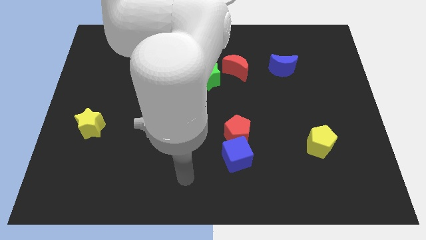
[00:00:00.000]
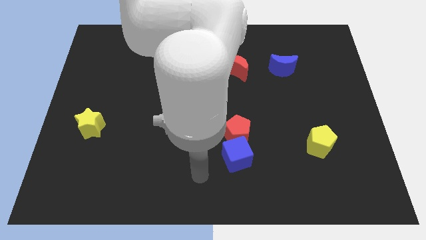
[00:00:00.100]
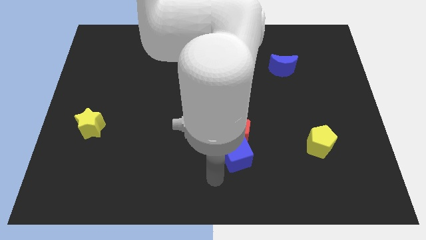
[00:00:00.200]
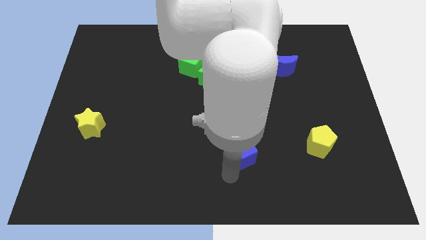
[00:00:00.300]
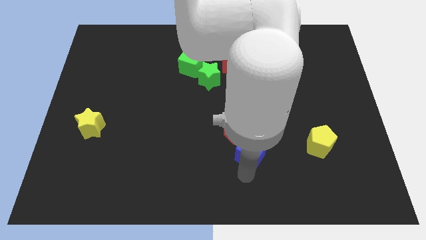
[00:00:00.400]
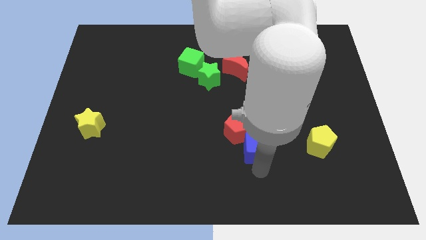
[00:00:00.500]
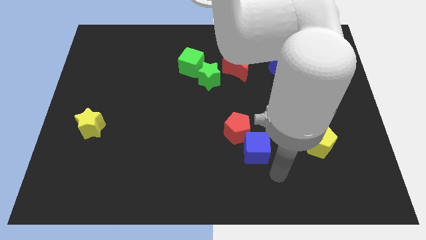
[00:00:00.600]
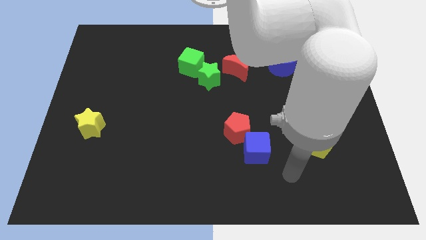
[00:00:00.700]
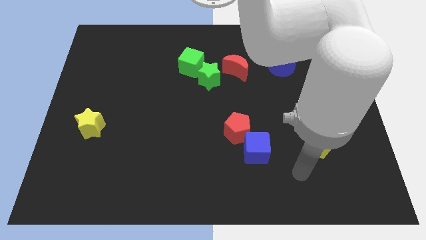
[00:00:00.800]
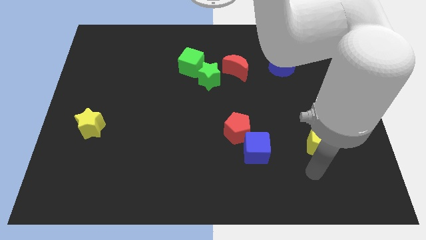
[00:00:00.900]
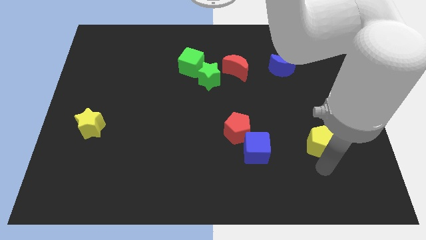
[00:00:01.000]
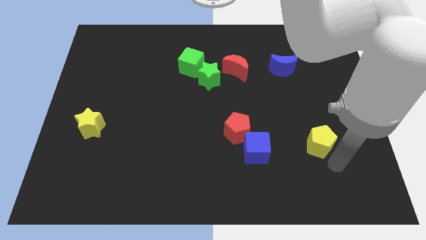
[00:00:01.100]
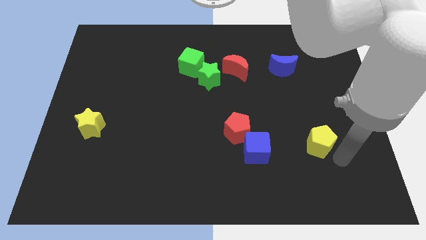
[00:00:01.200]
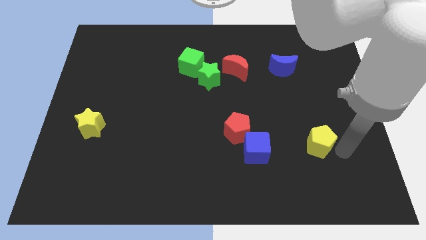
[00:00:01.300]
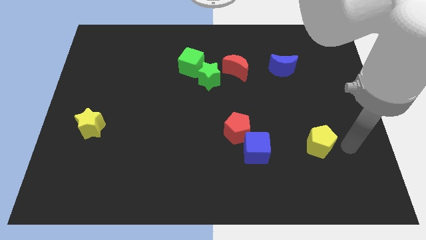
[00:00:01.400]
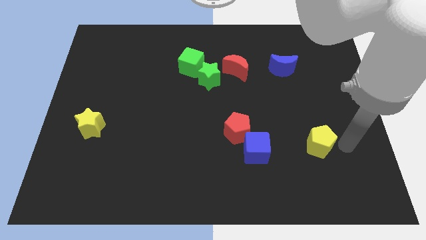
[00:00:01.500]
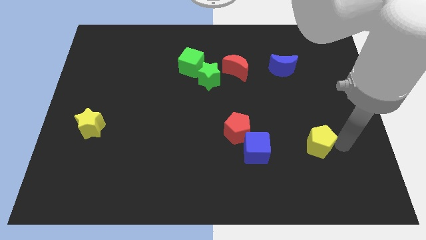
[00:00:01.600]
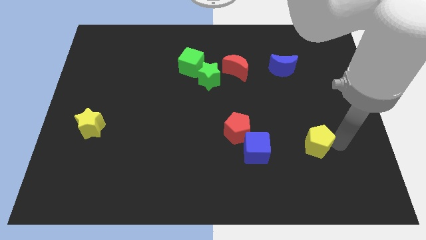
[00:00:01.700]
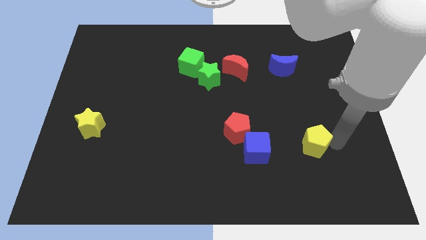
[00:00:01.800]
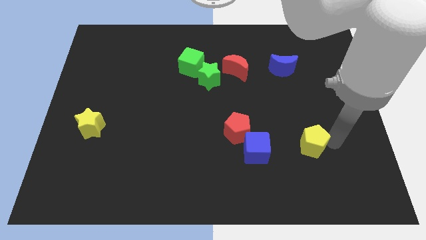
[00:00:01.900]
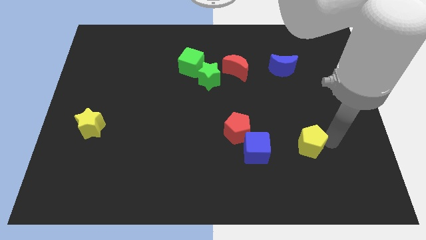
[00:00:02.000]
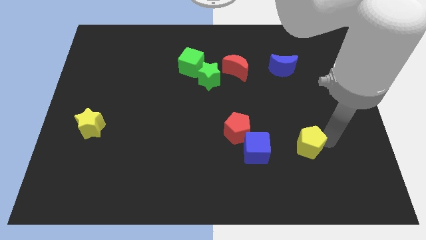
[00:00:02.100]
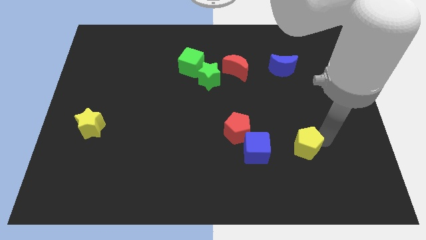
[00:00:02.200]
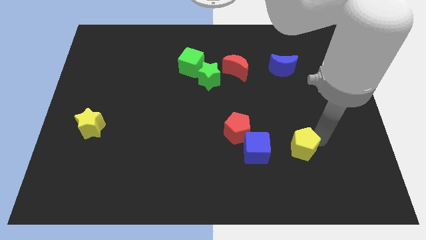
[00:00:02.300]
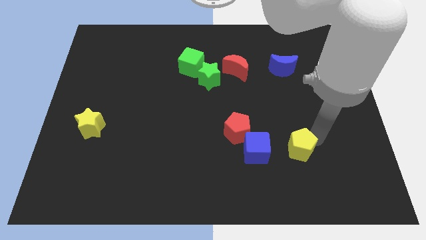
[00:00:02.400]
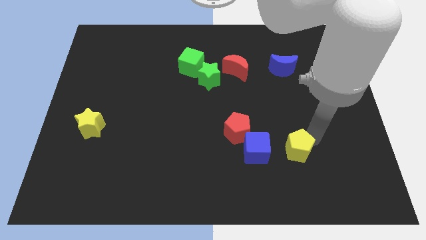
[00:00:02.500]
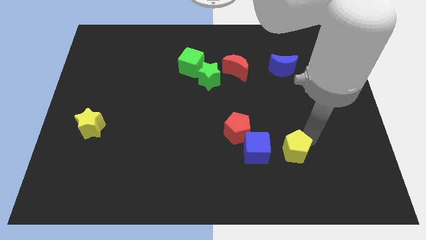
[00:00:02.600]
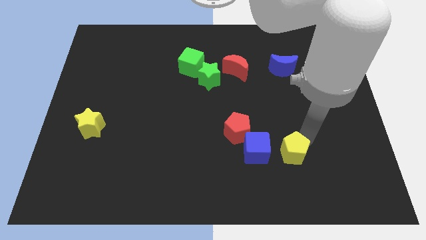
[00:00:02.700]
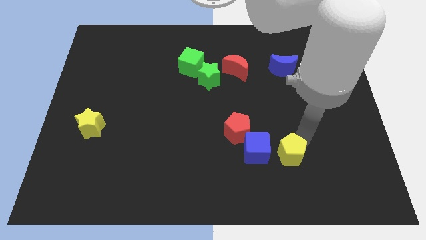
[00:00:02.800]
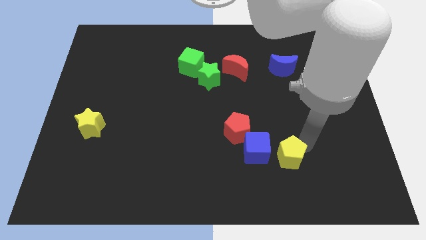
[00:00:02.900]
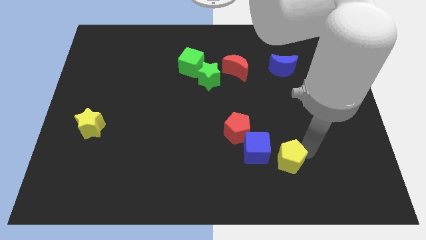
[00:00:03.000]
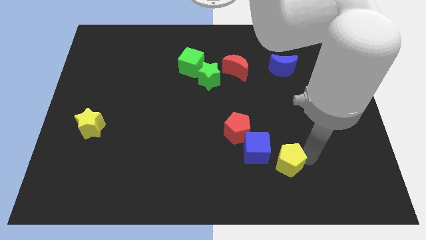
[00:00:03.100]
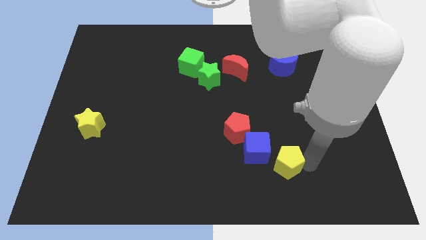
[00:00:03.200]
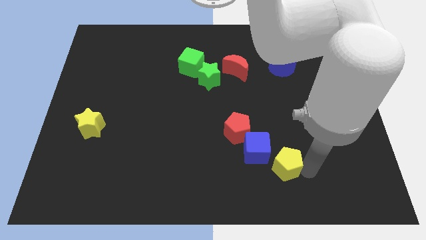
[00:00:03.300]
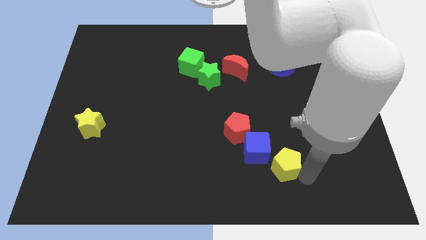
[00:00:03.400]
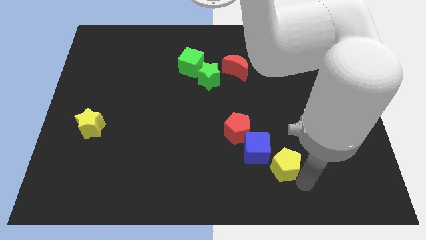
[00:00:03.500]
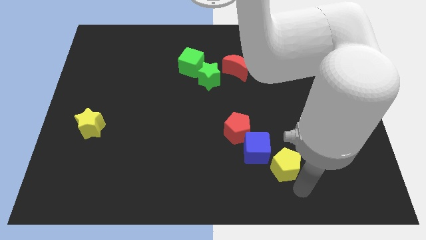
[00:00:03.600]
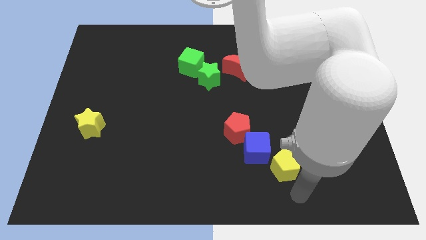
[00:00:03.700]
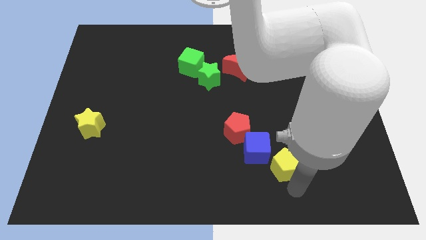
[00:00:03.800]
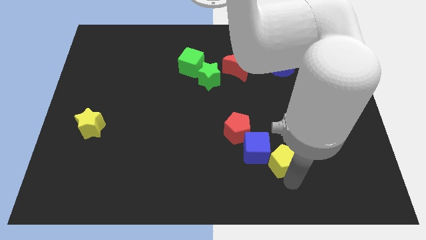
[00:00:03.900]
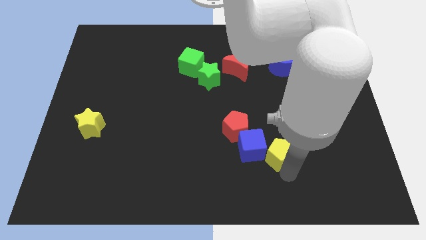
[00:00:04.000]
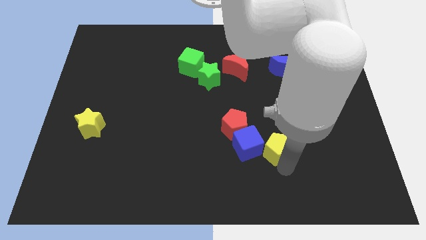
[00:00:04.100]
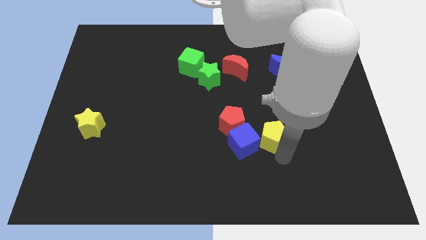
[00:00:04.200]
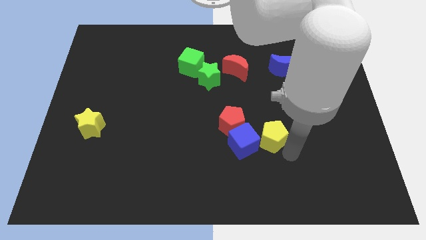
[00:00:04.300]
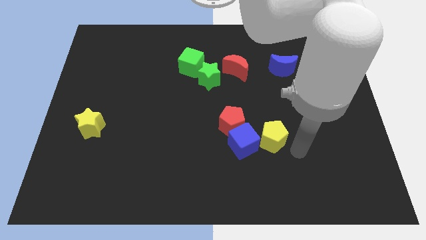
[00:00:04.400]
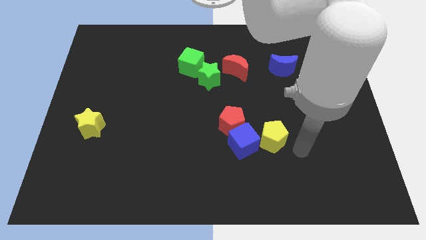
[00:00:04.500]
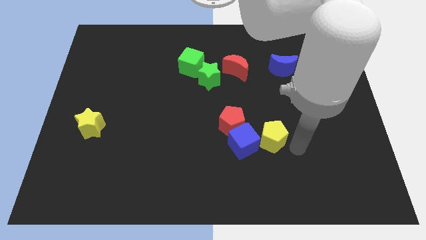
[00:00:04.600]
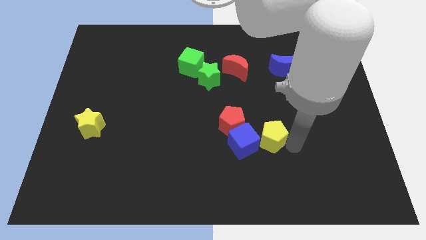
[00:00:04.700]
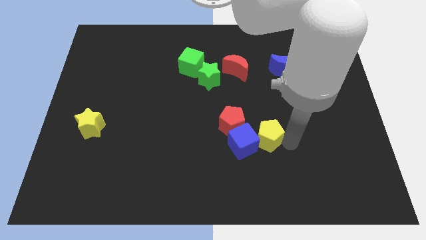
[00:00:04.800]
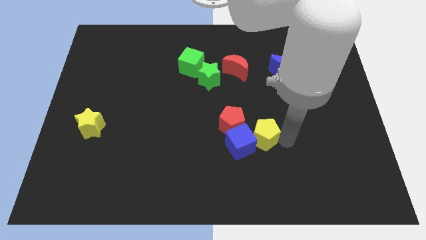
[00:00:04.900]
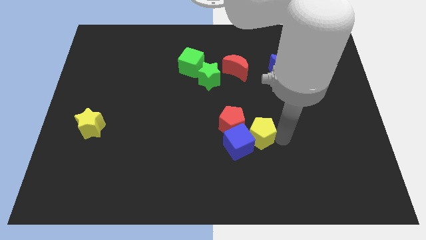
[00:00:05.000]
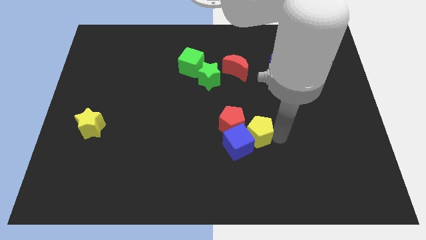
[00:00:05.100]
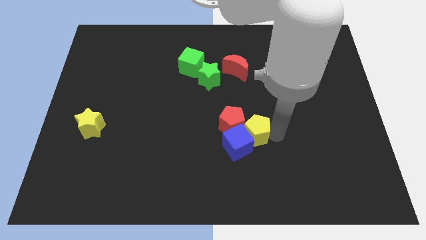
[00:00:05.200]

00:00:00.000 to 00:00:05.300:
move the yellow pentagon to the red pentagon

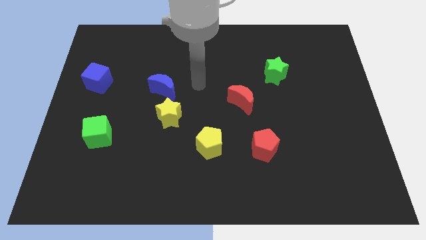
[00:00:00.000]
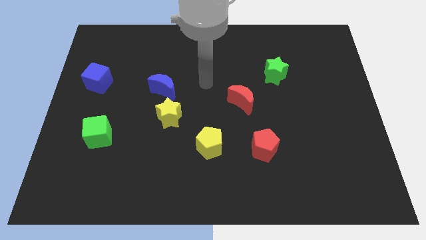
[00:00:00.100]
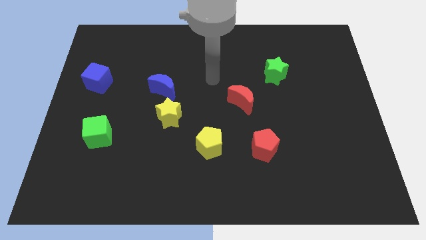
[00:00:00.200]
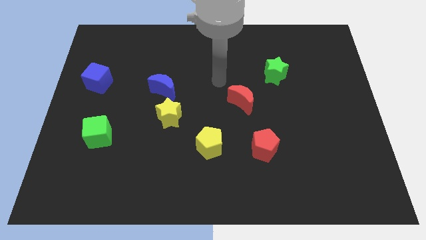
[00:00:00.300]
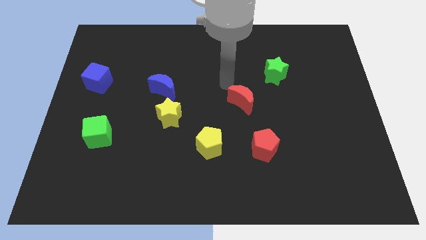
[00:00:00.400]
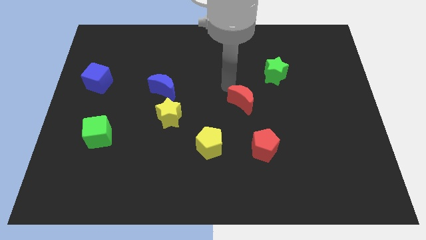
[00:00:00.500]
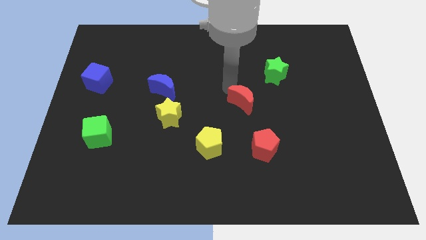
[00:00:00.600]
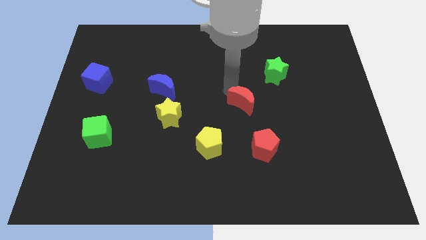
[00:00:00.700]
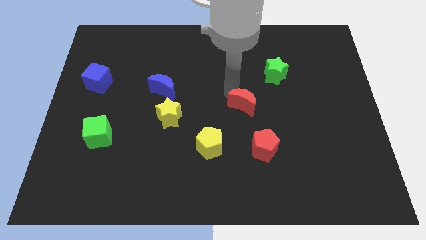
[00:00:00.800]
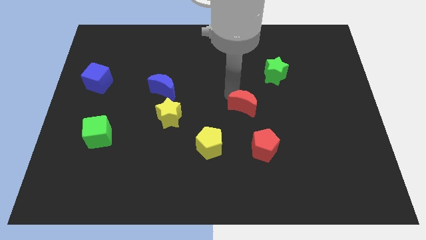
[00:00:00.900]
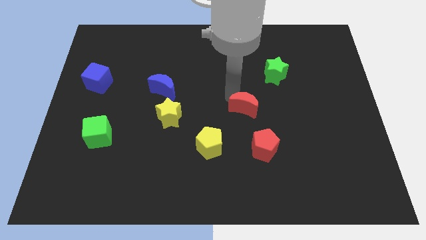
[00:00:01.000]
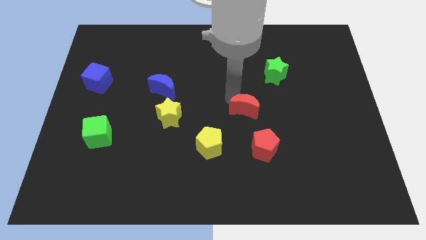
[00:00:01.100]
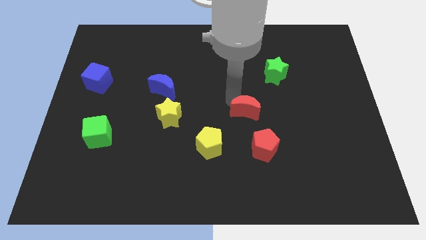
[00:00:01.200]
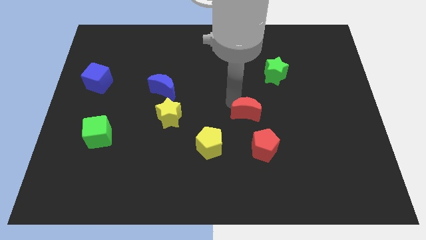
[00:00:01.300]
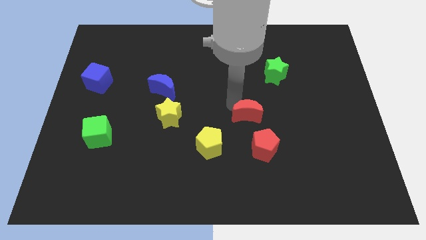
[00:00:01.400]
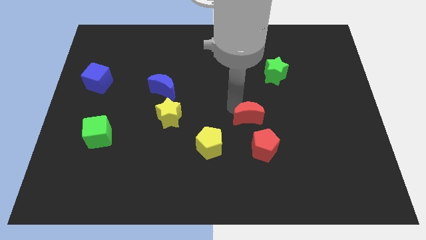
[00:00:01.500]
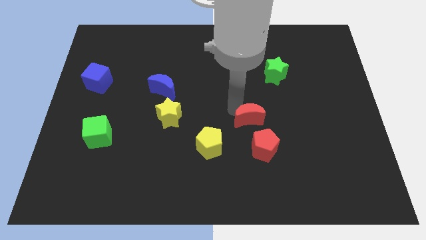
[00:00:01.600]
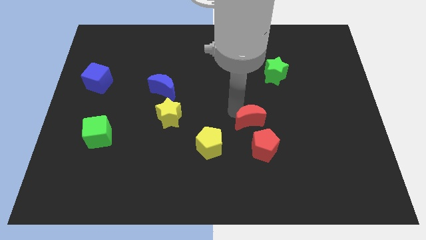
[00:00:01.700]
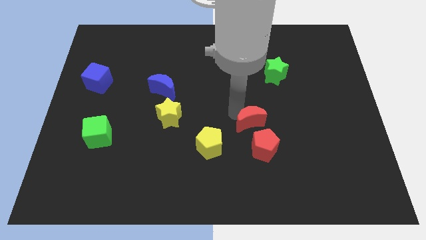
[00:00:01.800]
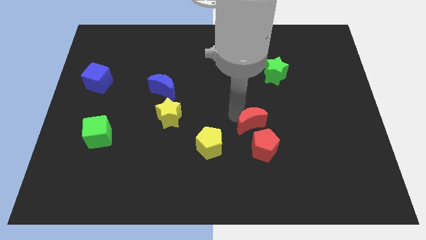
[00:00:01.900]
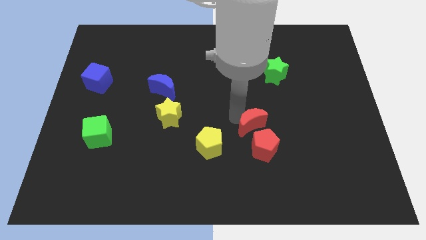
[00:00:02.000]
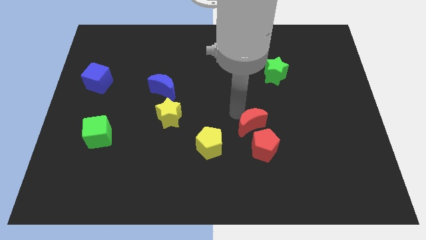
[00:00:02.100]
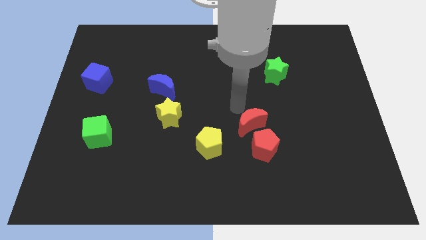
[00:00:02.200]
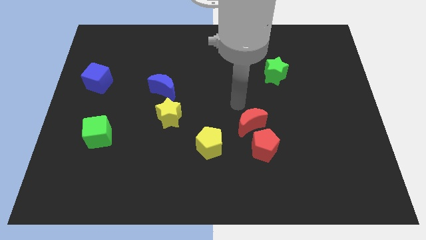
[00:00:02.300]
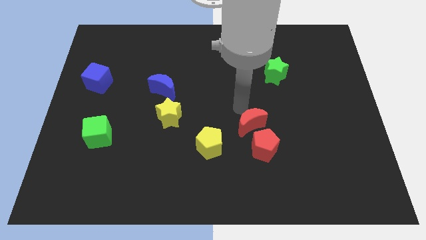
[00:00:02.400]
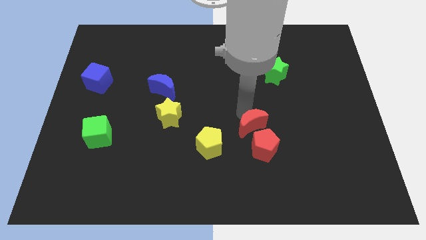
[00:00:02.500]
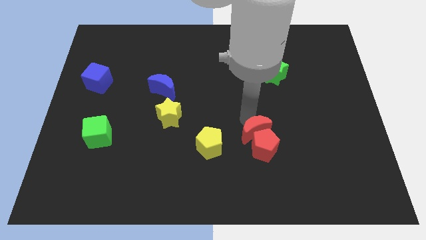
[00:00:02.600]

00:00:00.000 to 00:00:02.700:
push the red moon towards the red pentagon
